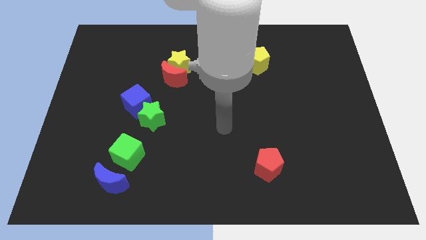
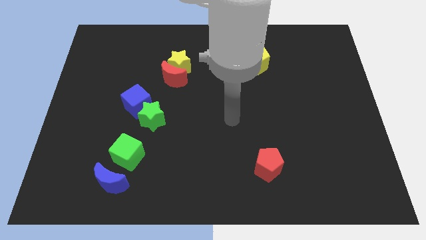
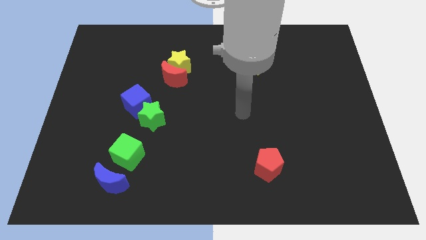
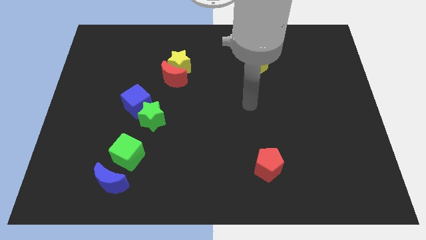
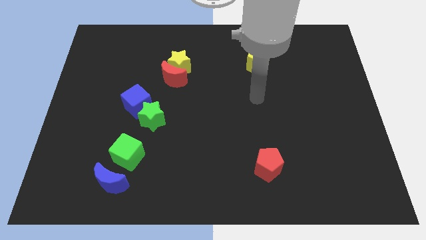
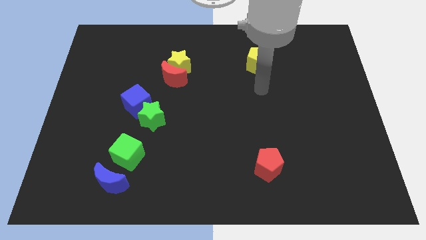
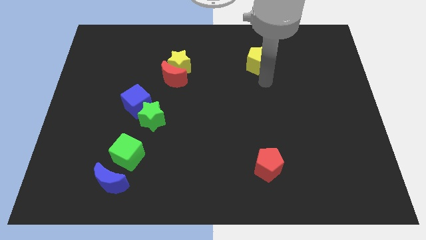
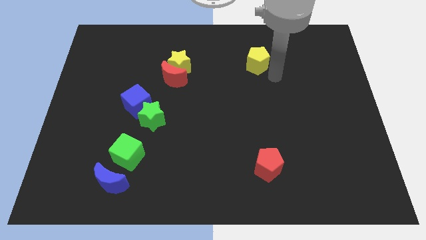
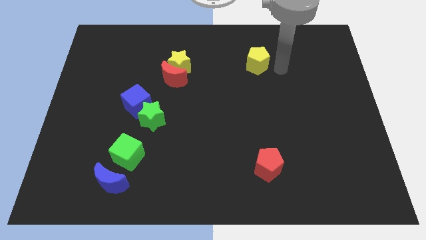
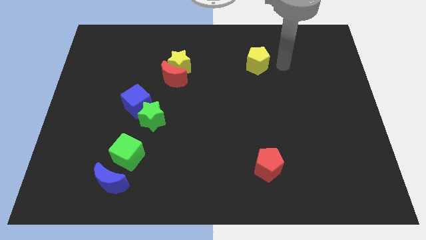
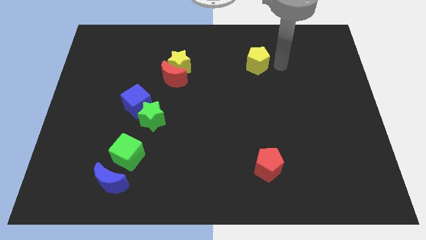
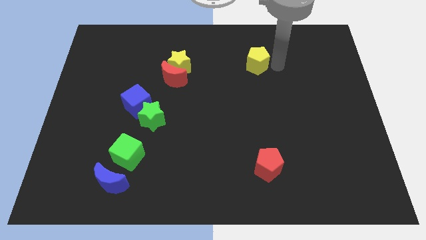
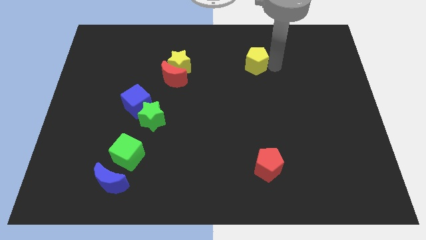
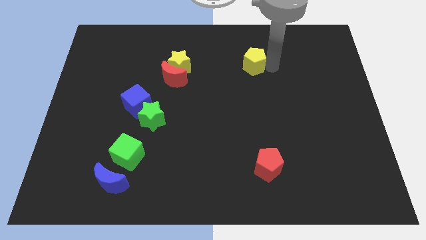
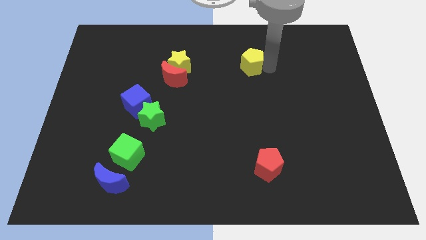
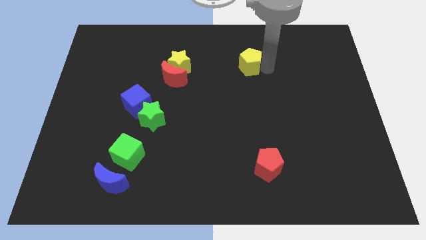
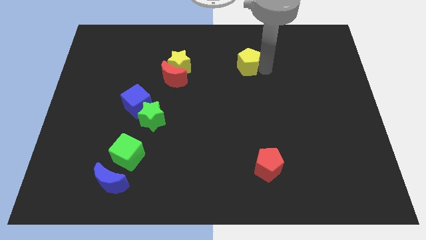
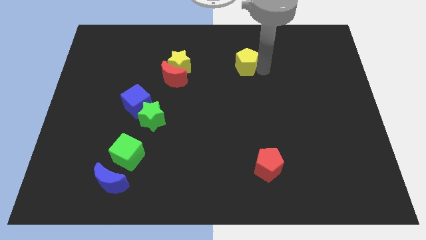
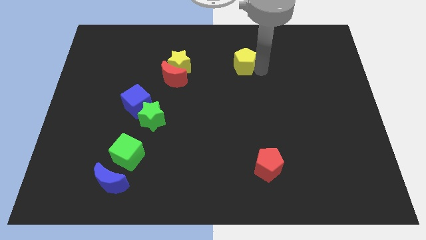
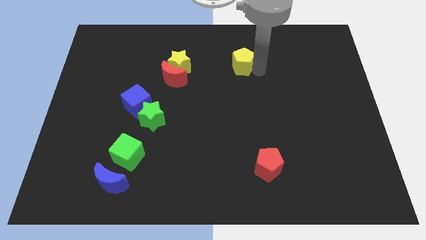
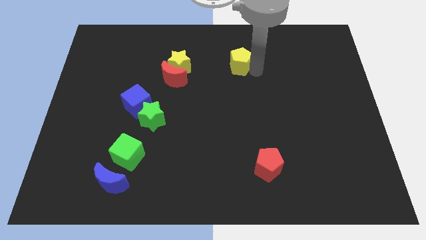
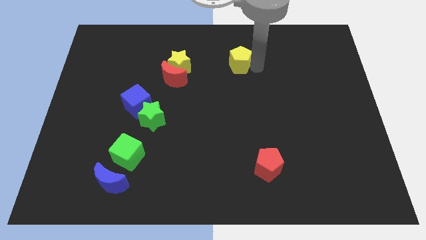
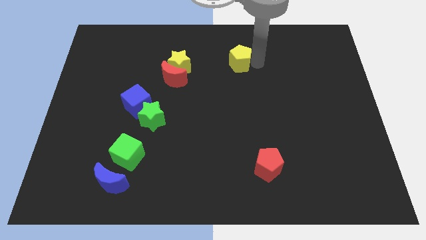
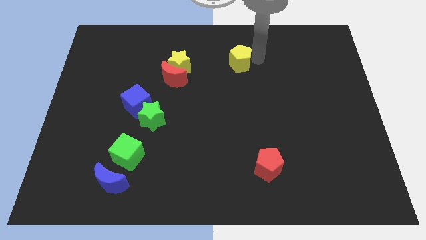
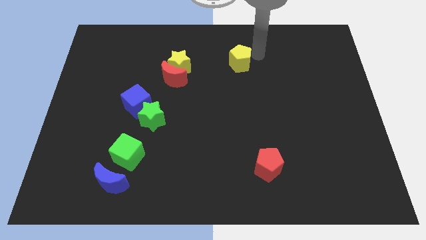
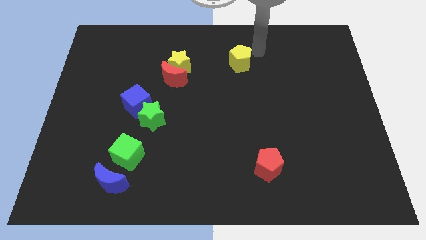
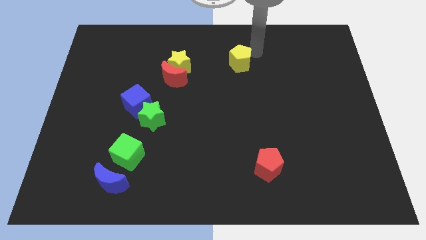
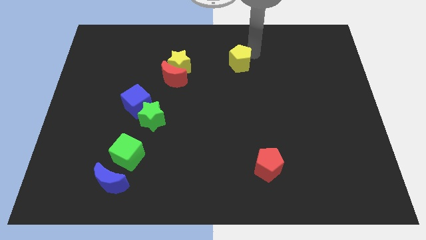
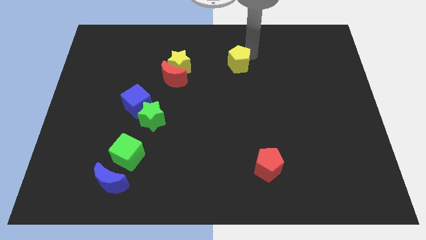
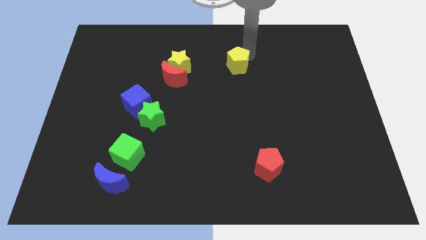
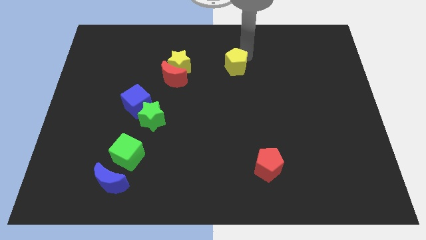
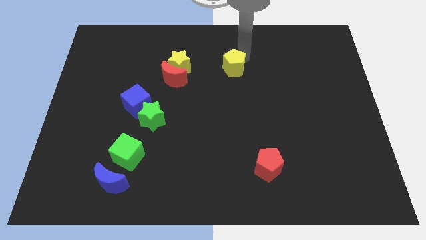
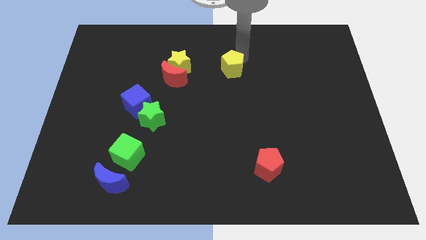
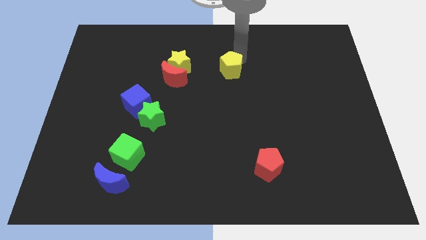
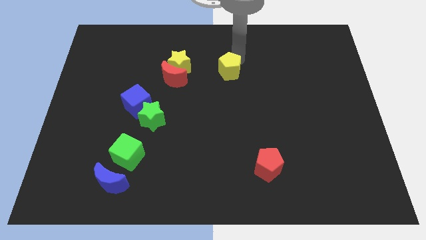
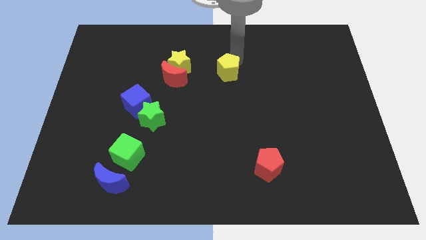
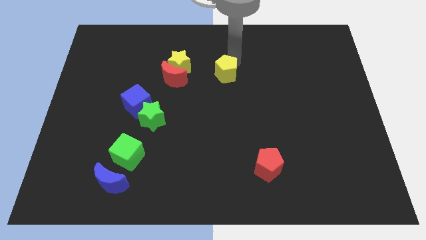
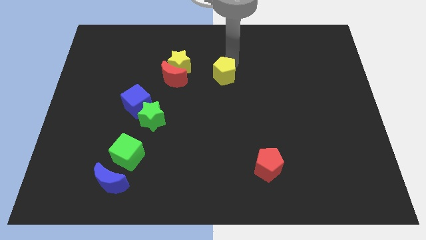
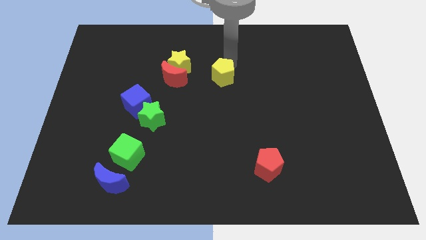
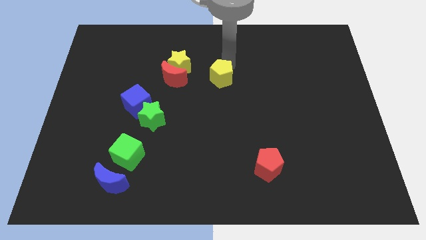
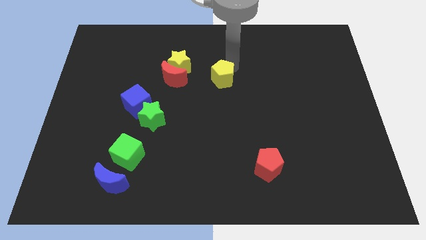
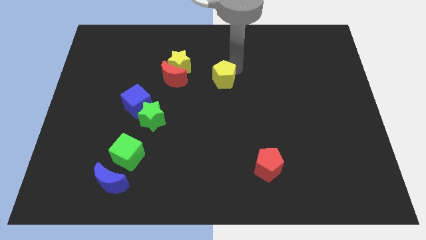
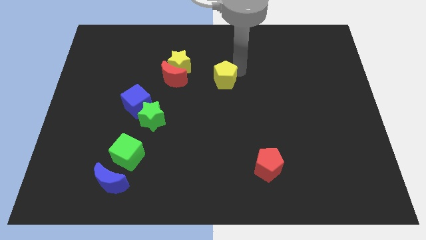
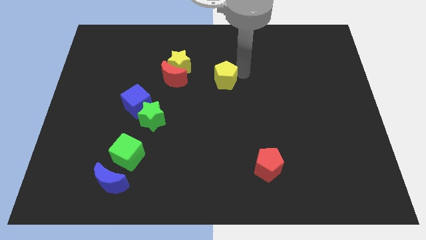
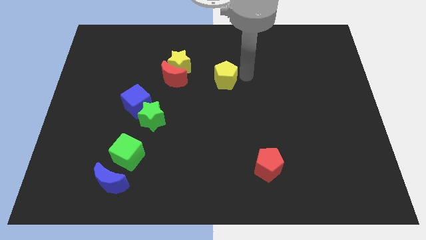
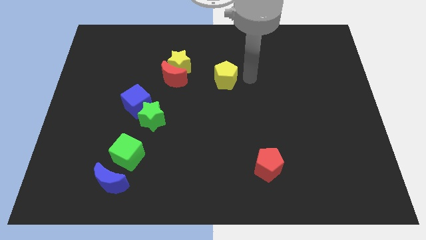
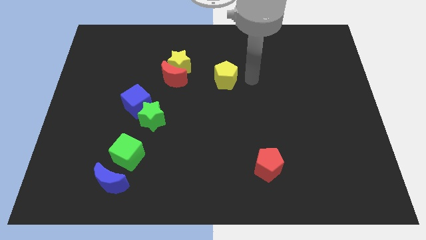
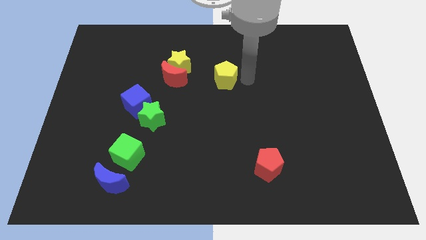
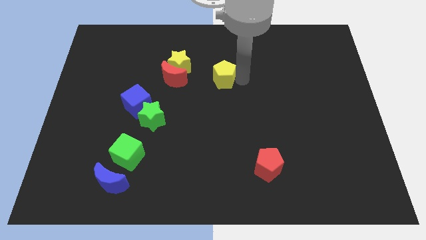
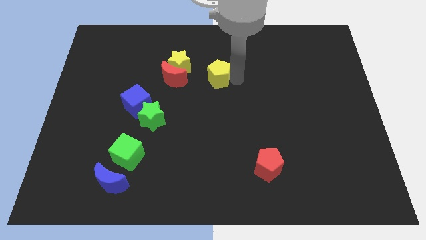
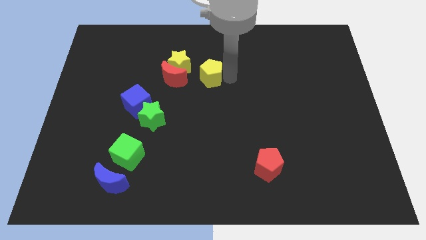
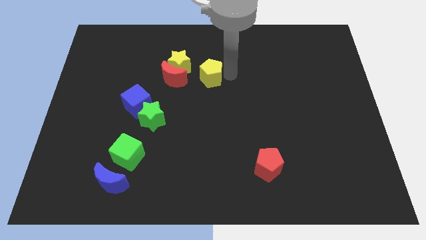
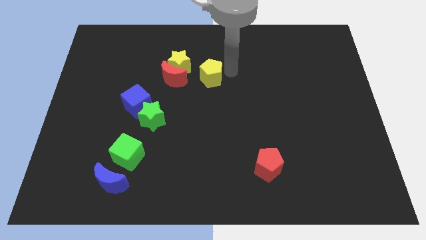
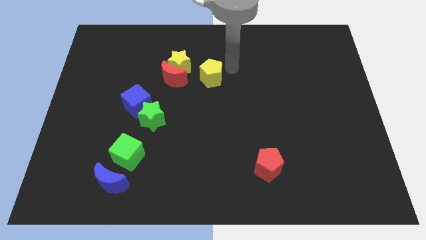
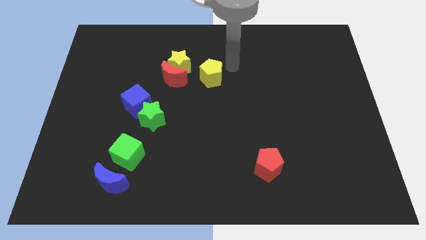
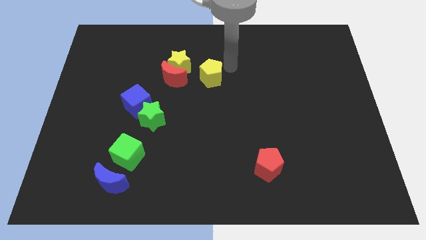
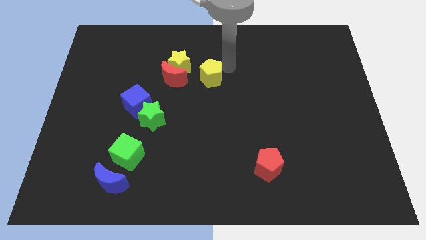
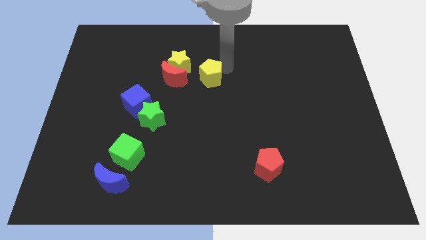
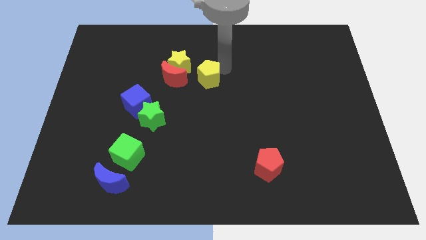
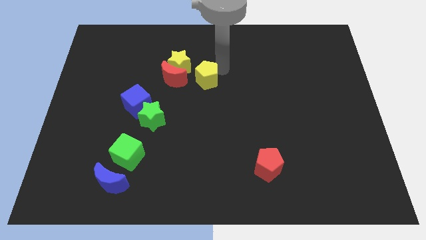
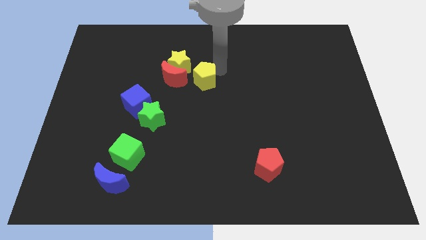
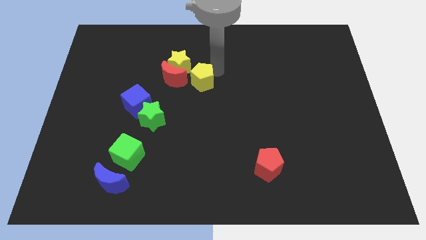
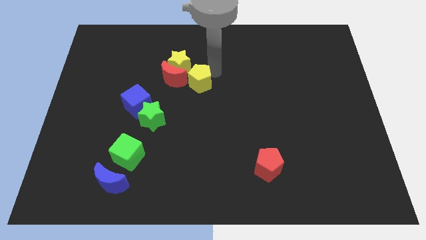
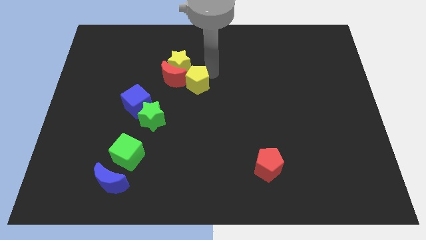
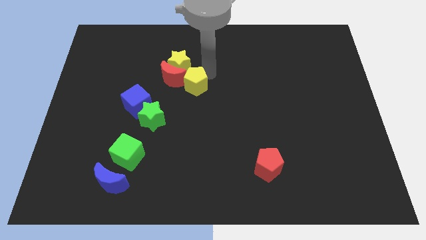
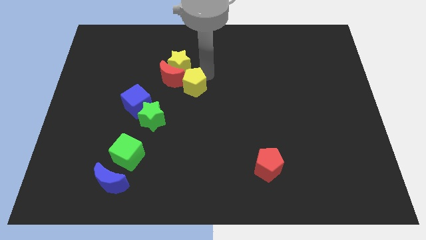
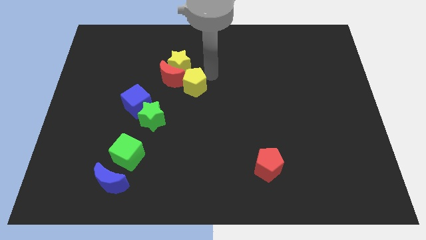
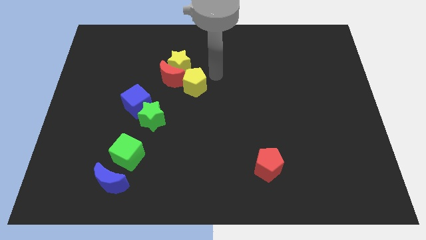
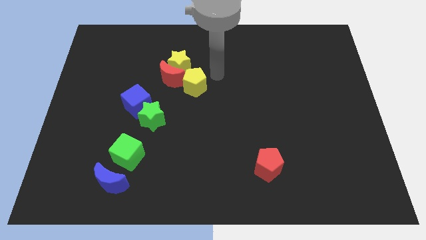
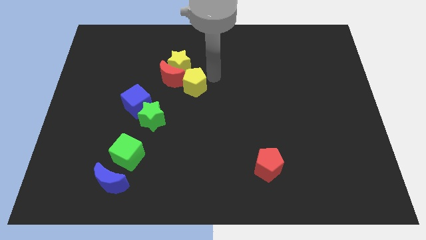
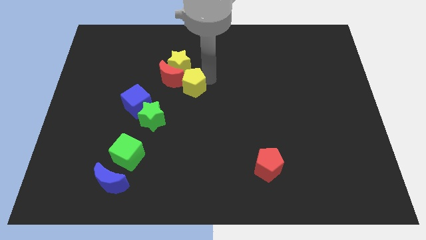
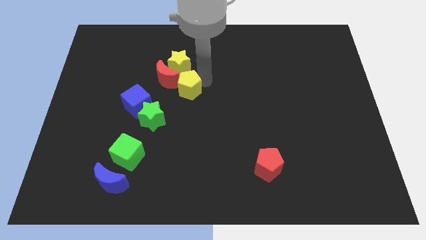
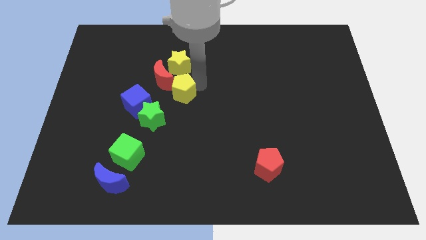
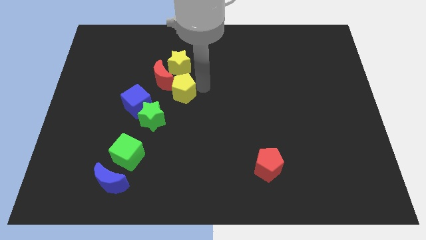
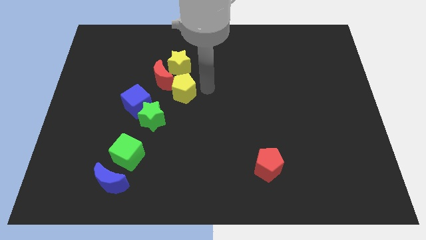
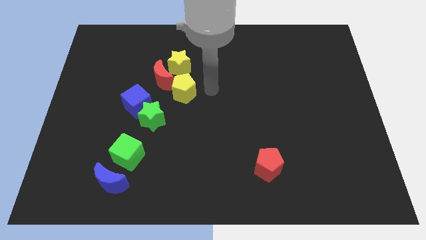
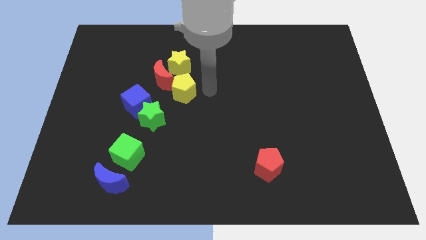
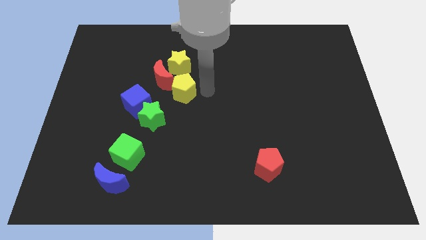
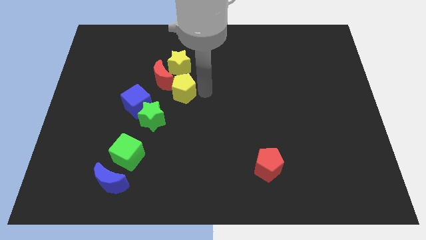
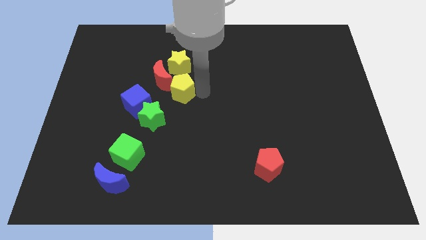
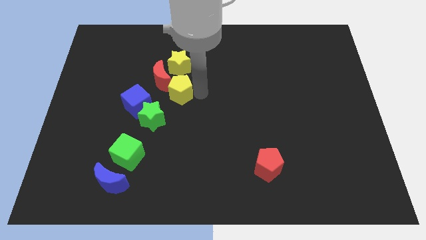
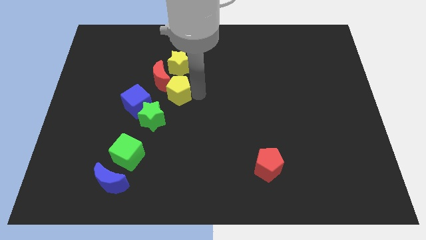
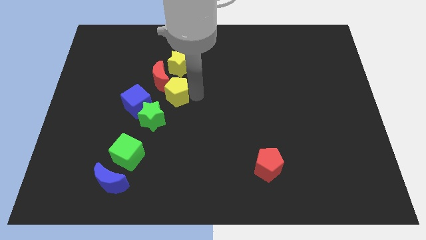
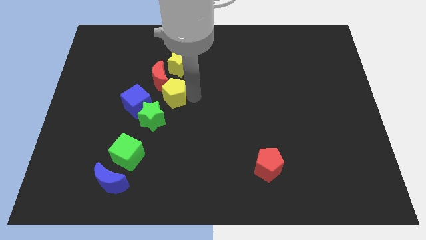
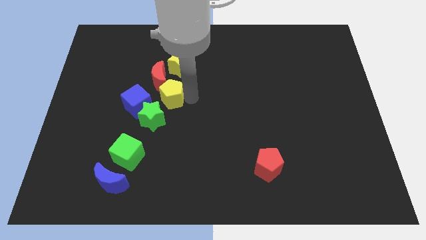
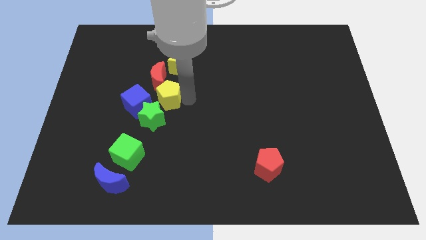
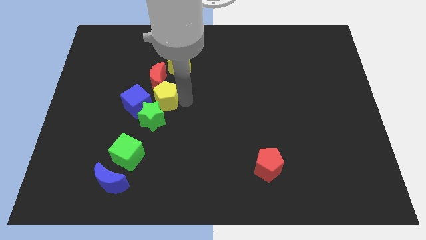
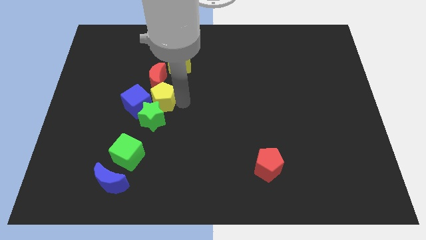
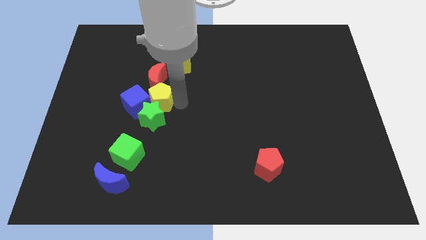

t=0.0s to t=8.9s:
put the yellow pentagon diagonally up and to the left of the green star
